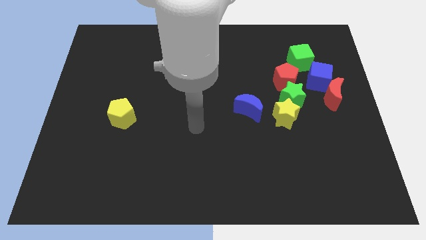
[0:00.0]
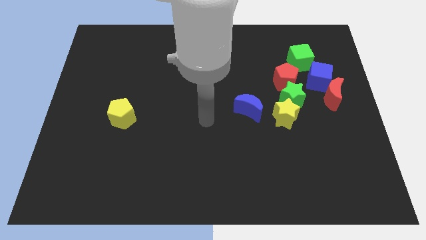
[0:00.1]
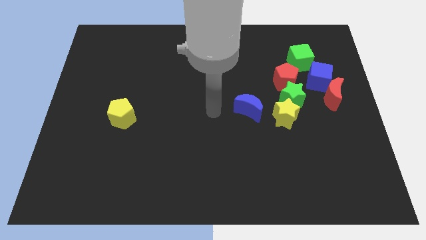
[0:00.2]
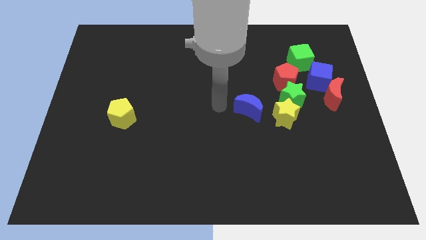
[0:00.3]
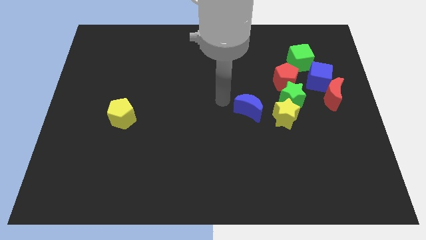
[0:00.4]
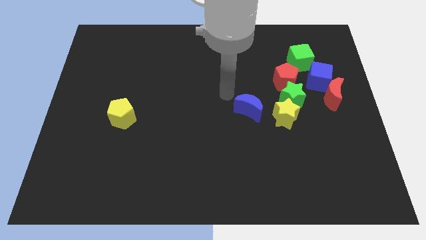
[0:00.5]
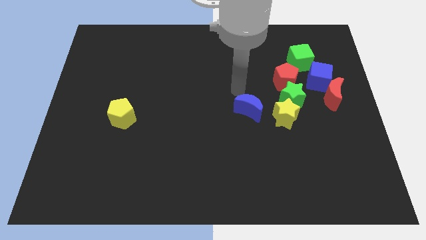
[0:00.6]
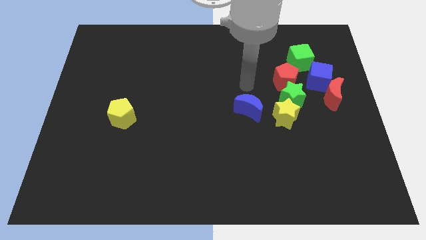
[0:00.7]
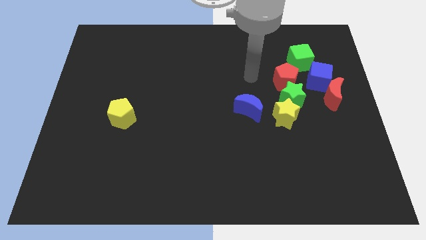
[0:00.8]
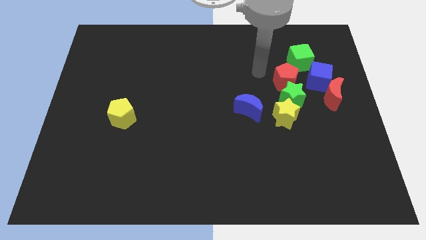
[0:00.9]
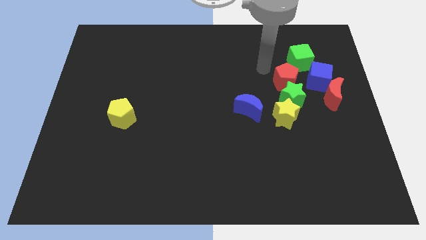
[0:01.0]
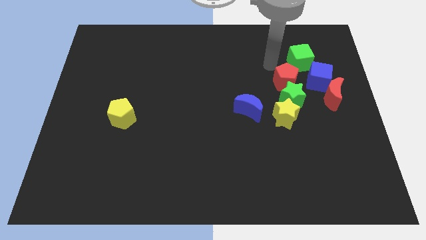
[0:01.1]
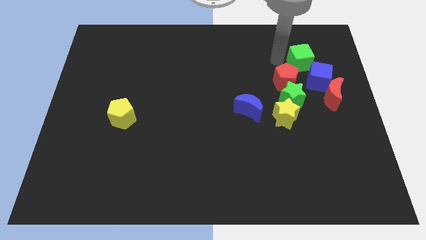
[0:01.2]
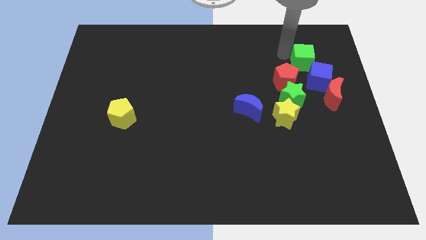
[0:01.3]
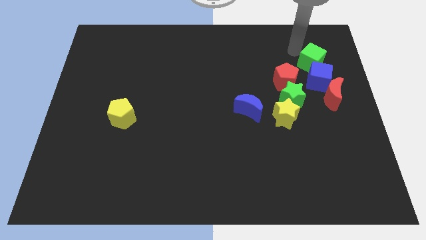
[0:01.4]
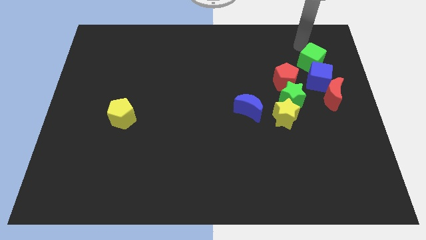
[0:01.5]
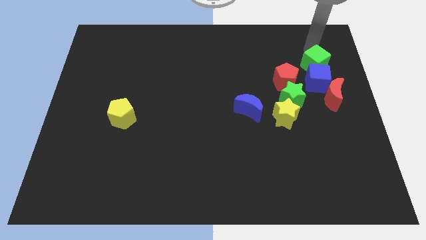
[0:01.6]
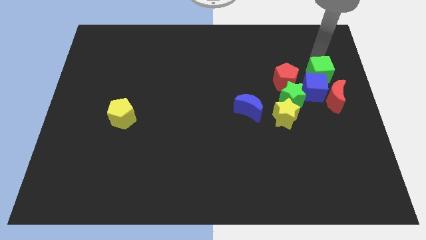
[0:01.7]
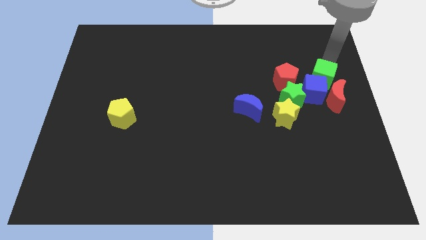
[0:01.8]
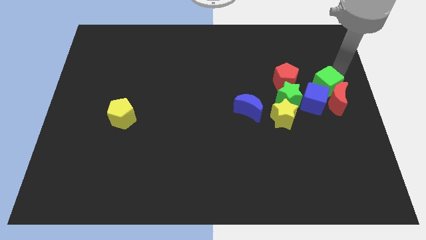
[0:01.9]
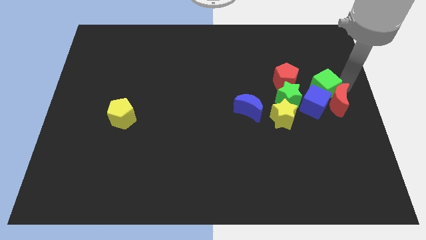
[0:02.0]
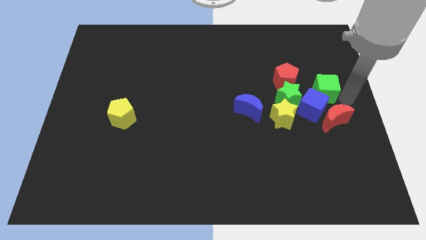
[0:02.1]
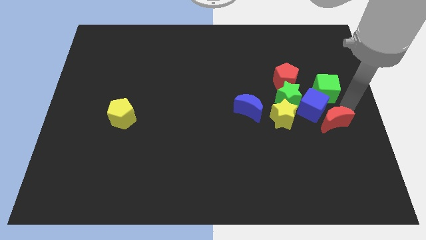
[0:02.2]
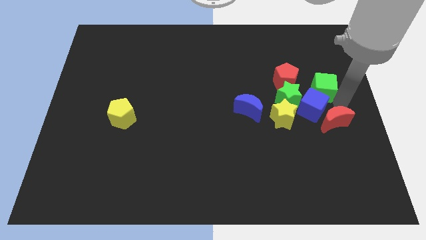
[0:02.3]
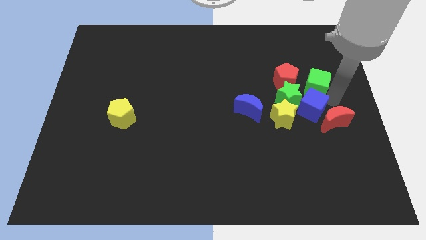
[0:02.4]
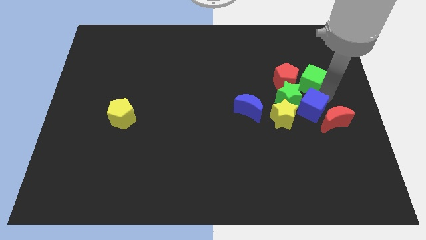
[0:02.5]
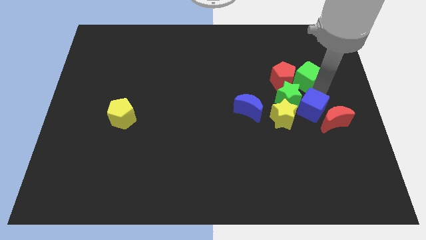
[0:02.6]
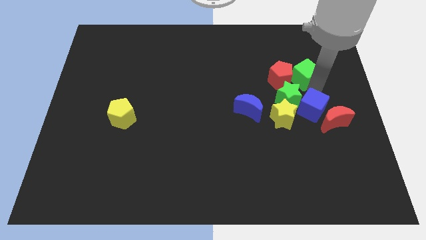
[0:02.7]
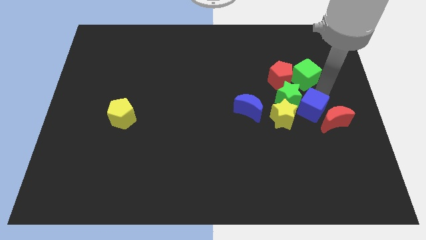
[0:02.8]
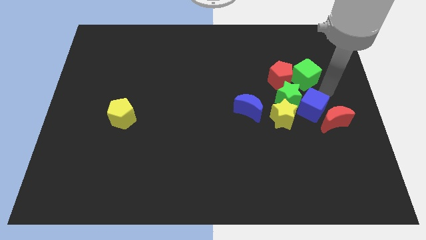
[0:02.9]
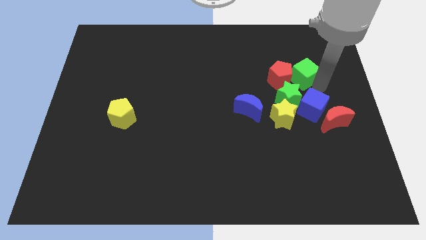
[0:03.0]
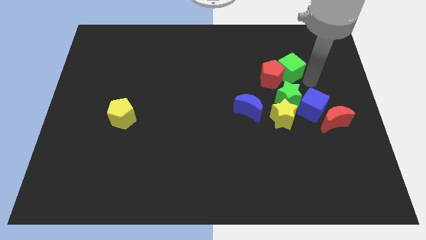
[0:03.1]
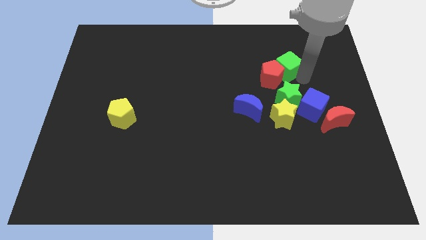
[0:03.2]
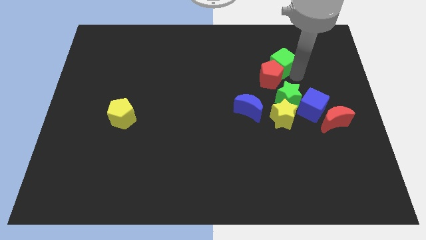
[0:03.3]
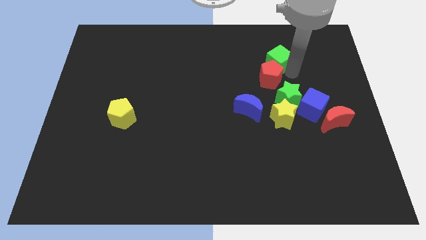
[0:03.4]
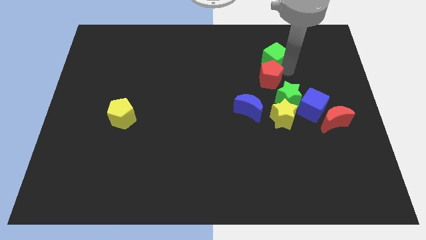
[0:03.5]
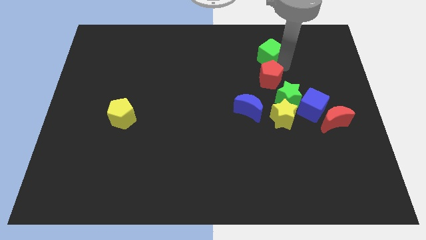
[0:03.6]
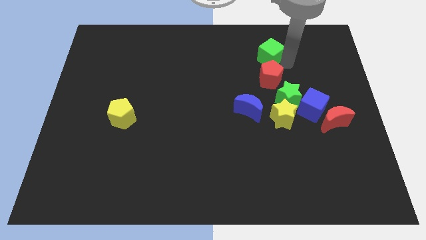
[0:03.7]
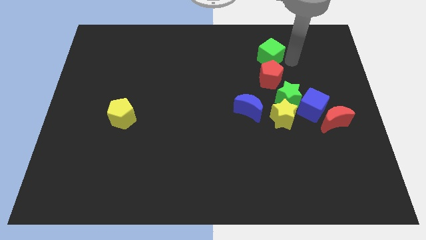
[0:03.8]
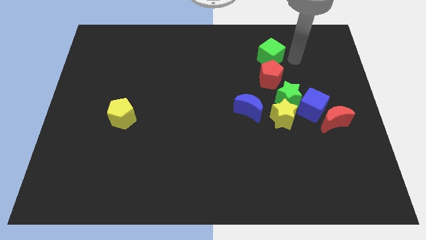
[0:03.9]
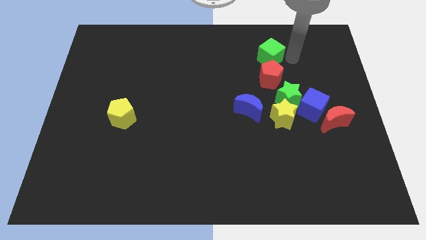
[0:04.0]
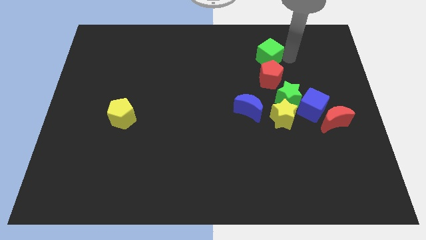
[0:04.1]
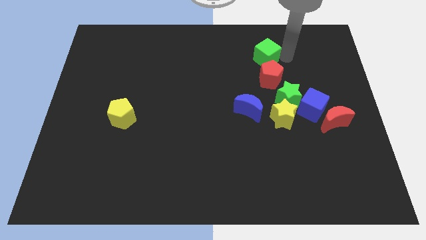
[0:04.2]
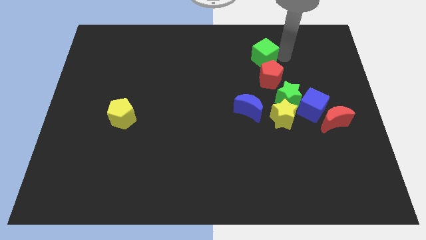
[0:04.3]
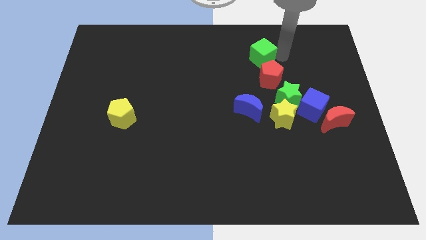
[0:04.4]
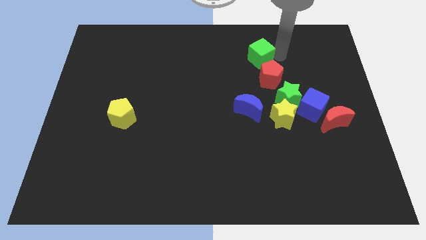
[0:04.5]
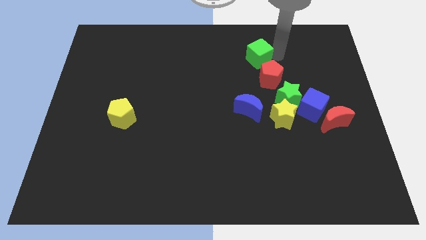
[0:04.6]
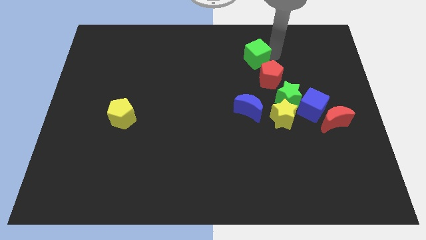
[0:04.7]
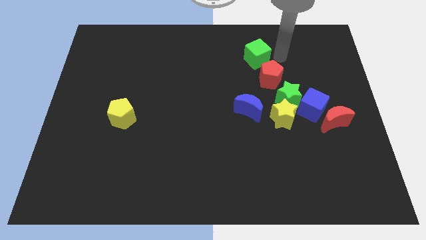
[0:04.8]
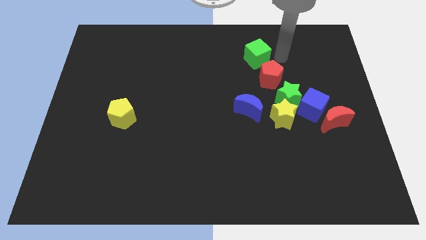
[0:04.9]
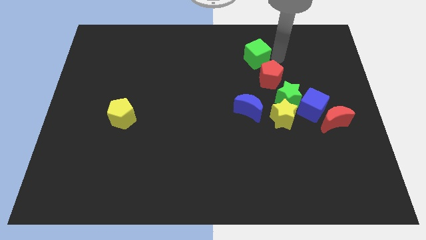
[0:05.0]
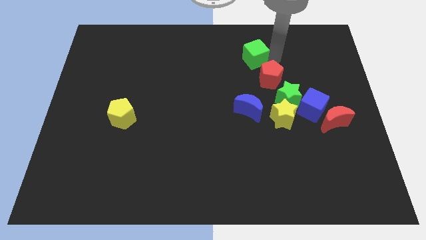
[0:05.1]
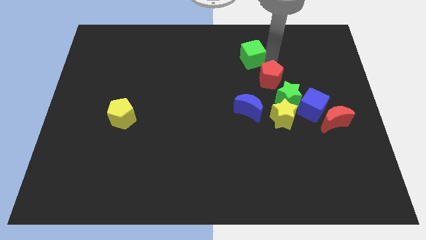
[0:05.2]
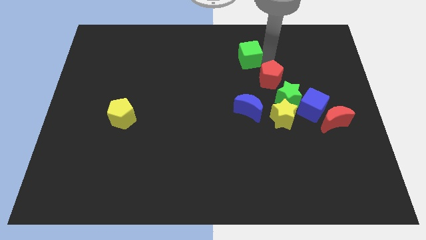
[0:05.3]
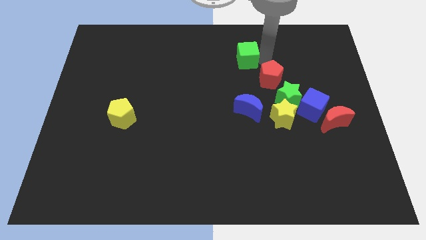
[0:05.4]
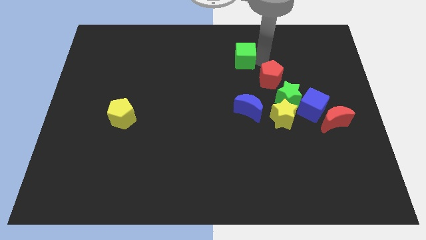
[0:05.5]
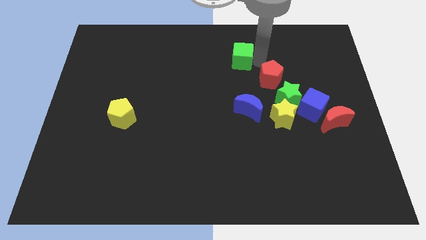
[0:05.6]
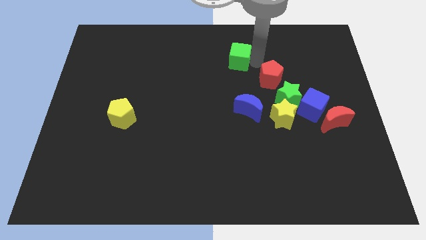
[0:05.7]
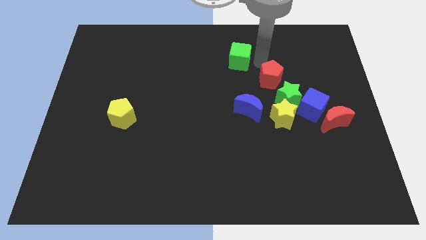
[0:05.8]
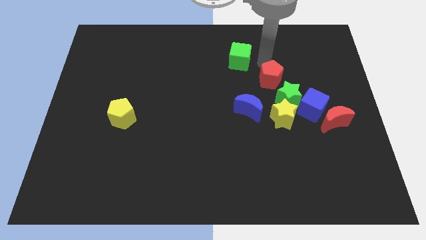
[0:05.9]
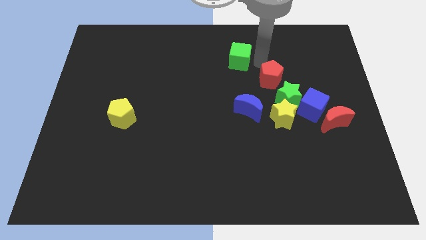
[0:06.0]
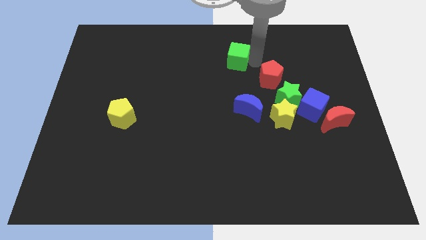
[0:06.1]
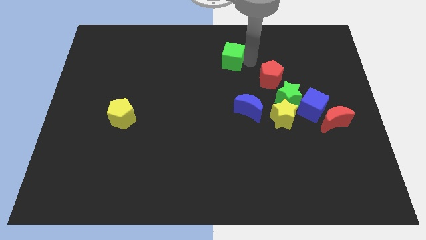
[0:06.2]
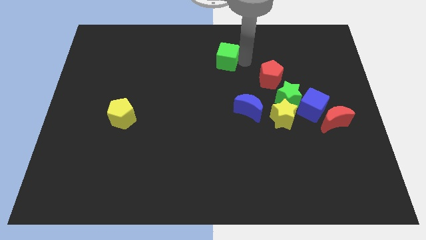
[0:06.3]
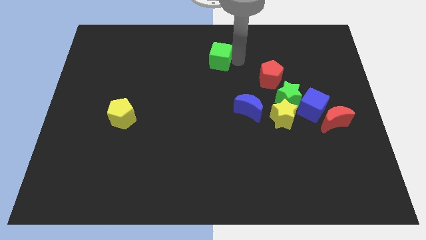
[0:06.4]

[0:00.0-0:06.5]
slide the green cube left

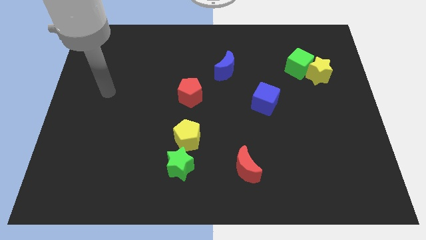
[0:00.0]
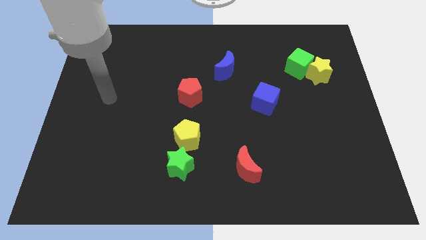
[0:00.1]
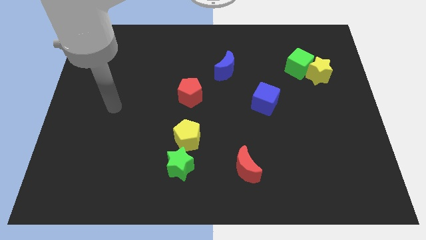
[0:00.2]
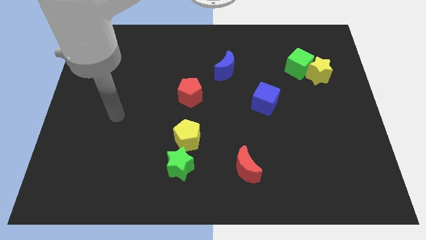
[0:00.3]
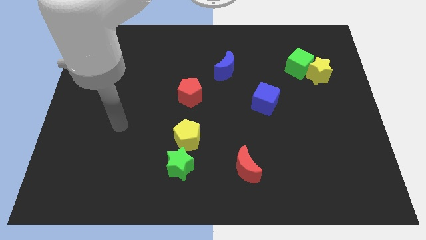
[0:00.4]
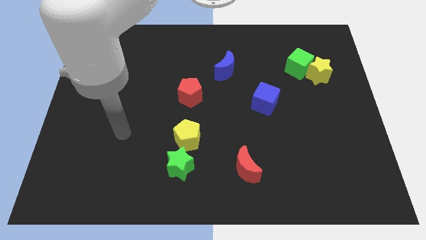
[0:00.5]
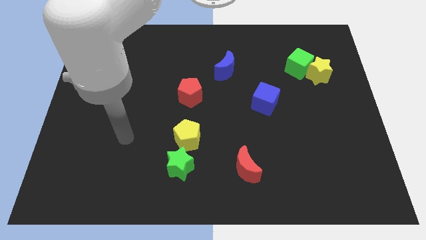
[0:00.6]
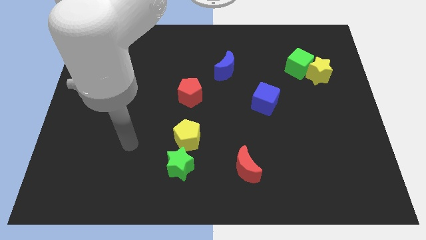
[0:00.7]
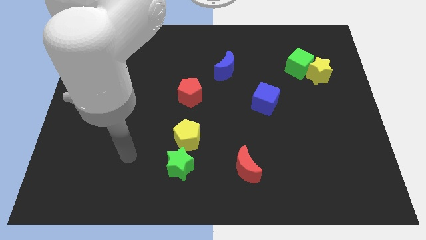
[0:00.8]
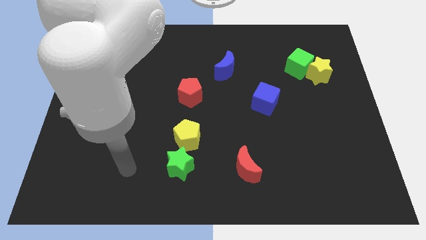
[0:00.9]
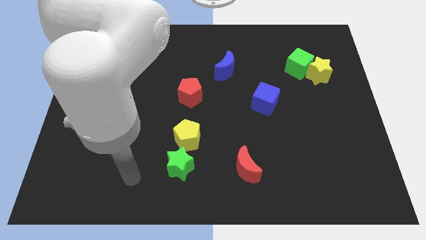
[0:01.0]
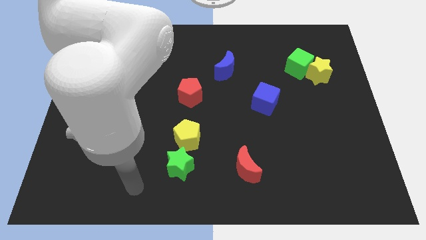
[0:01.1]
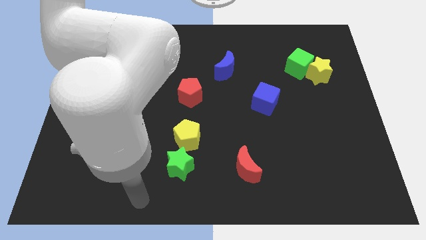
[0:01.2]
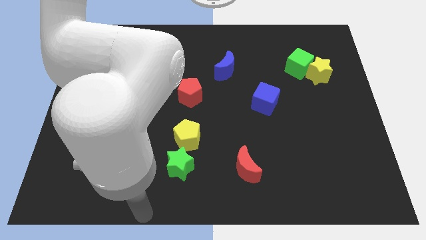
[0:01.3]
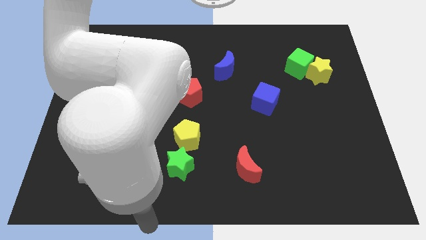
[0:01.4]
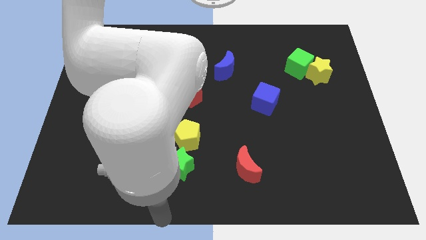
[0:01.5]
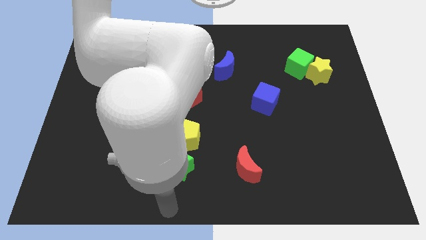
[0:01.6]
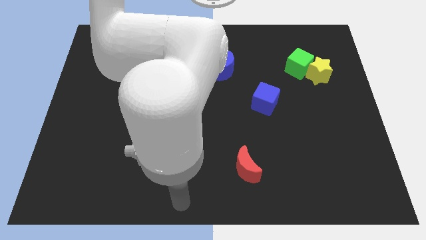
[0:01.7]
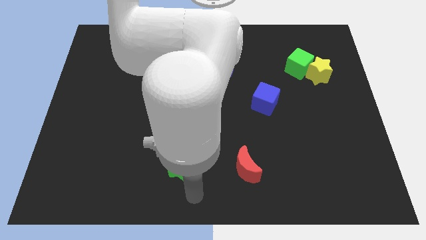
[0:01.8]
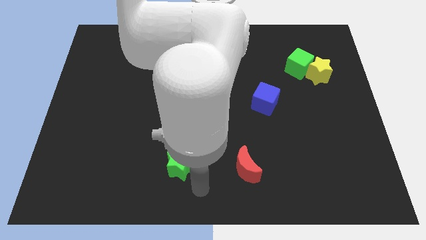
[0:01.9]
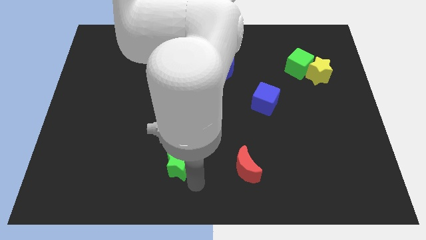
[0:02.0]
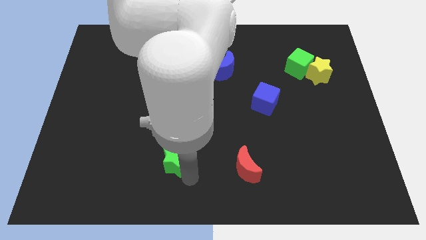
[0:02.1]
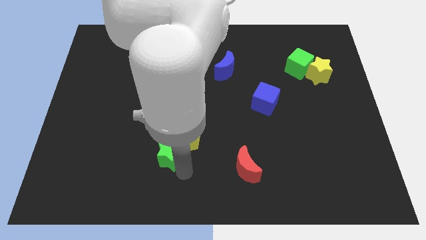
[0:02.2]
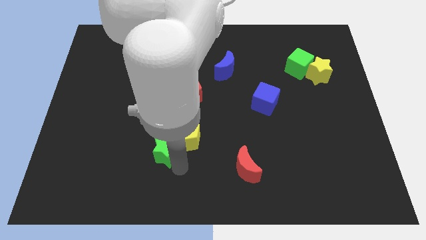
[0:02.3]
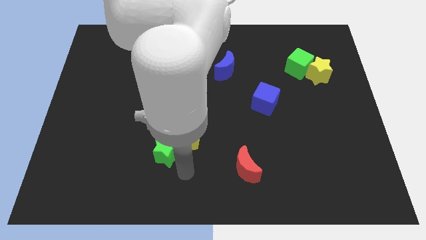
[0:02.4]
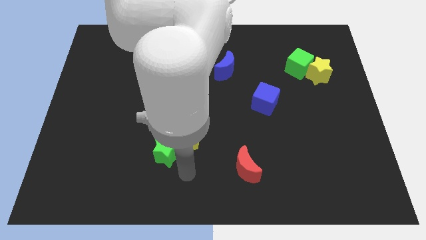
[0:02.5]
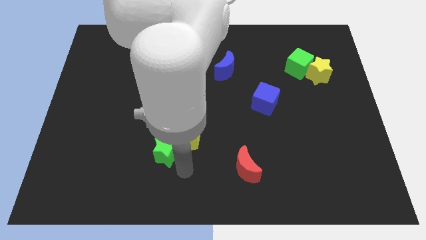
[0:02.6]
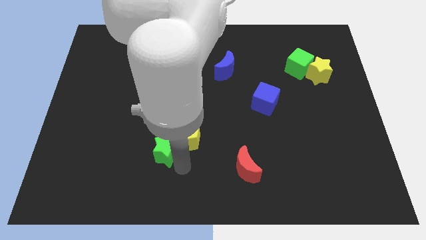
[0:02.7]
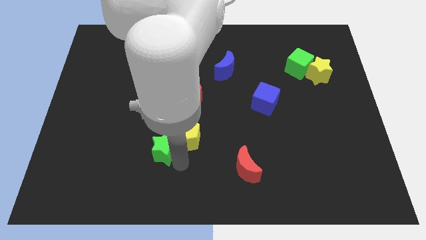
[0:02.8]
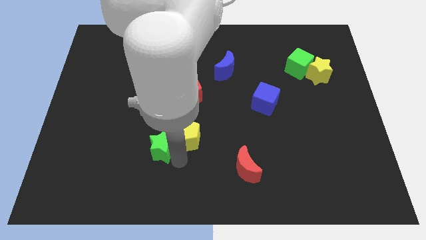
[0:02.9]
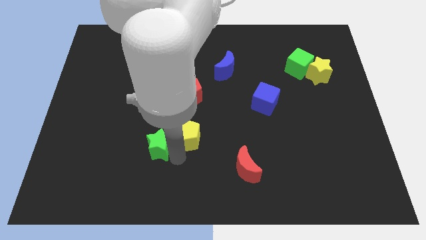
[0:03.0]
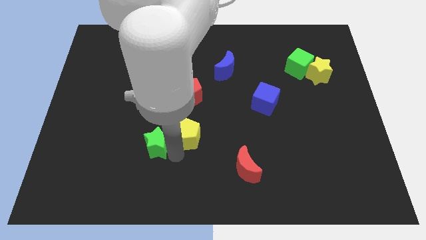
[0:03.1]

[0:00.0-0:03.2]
slide the green star upwards and left a little bit
